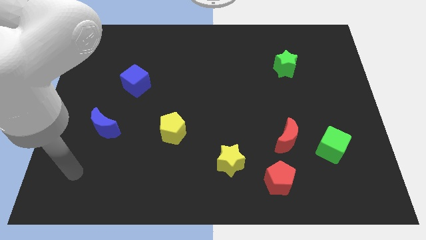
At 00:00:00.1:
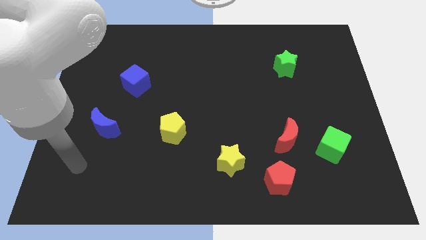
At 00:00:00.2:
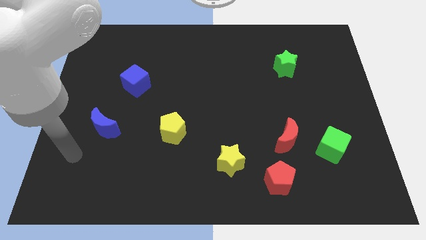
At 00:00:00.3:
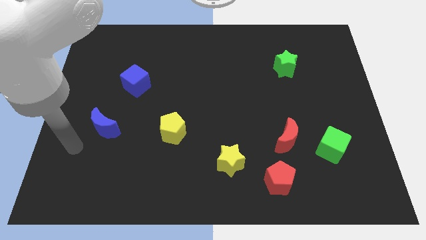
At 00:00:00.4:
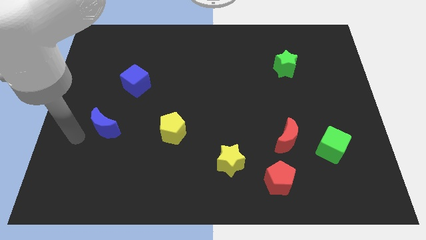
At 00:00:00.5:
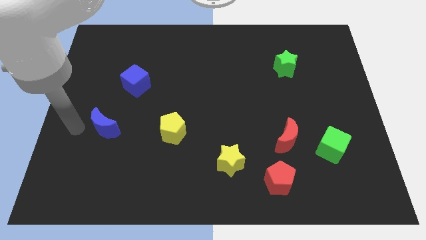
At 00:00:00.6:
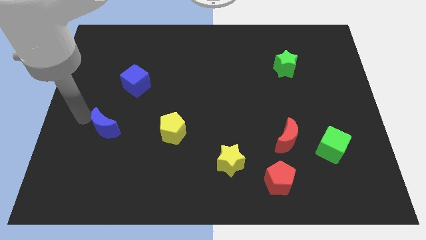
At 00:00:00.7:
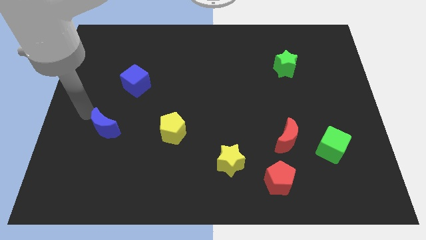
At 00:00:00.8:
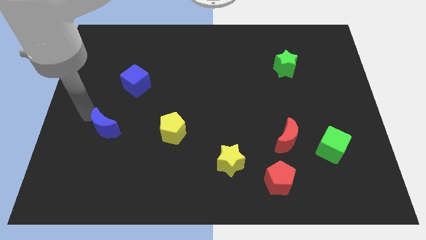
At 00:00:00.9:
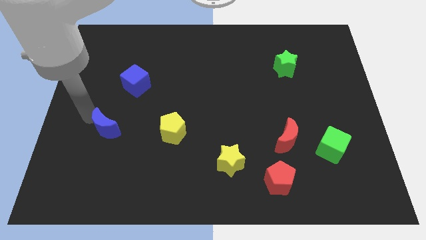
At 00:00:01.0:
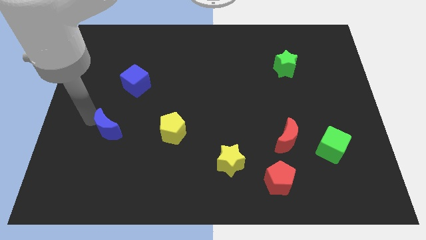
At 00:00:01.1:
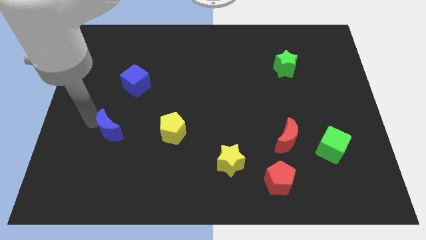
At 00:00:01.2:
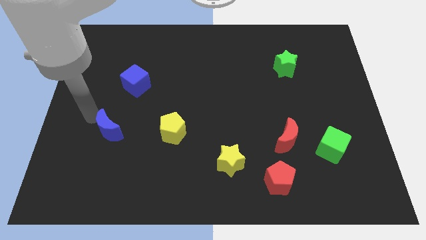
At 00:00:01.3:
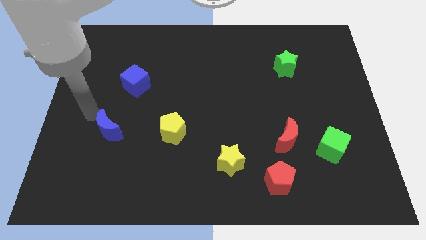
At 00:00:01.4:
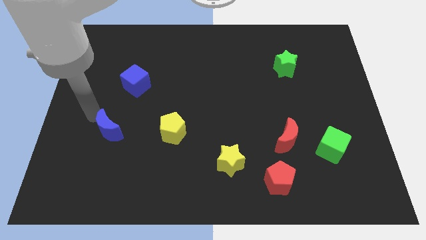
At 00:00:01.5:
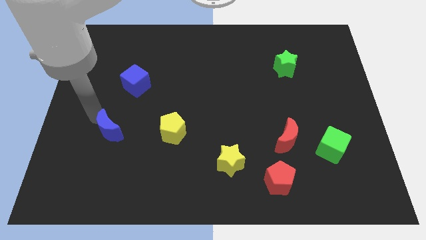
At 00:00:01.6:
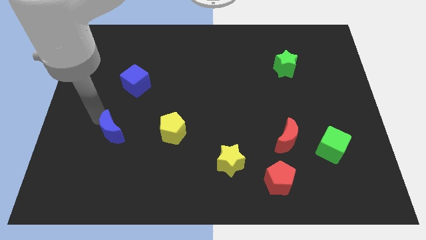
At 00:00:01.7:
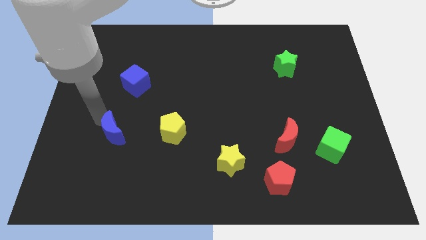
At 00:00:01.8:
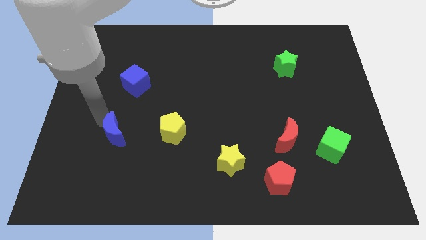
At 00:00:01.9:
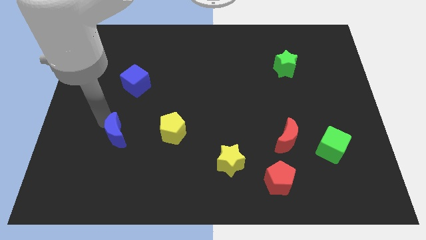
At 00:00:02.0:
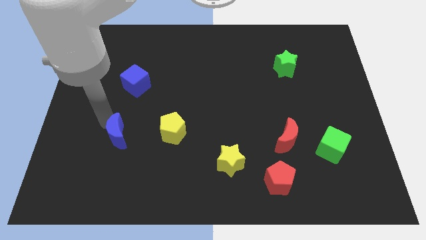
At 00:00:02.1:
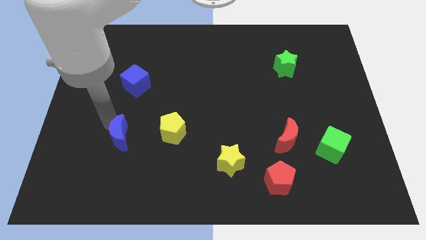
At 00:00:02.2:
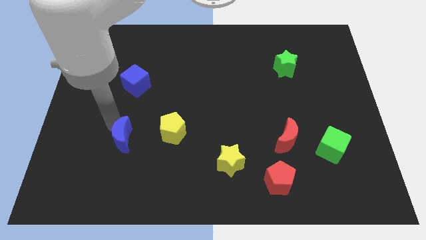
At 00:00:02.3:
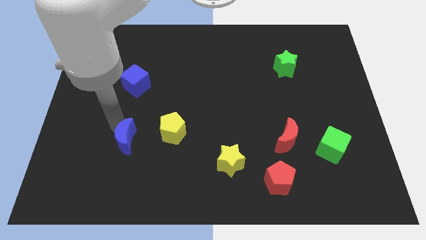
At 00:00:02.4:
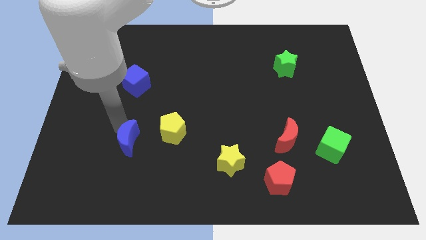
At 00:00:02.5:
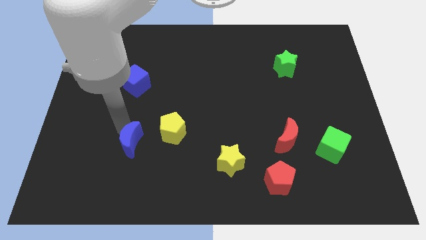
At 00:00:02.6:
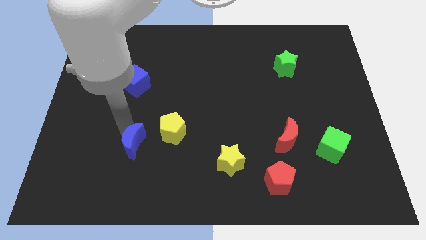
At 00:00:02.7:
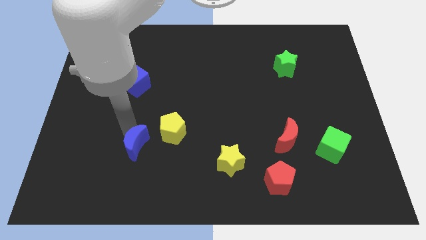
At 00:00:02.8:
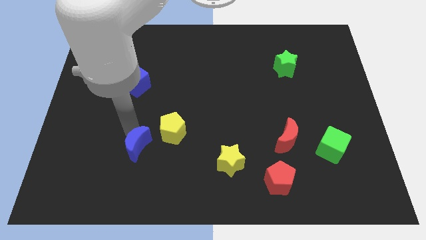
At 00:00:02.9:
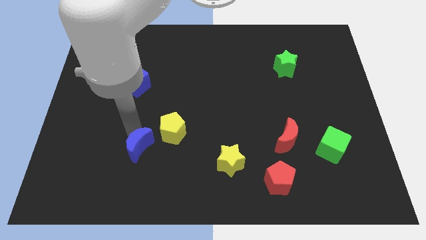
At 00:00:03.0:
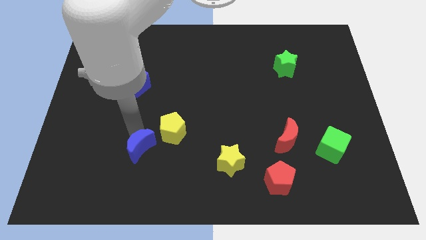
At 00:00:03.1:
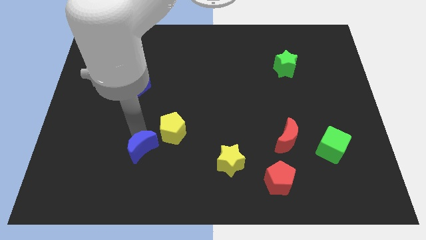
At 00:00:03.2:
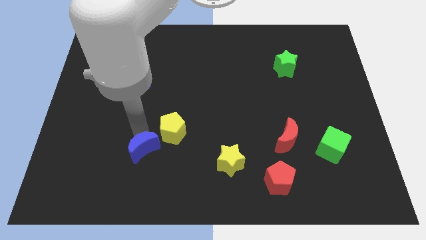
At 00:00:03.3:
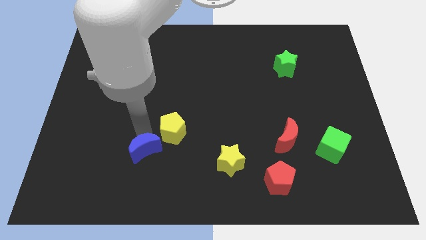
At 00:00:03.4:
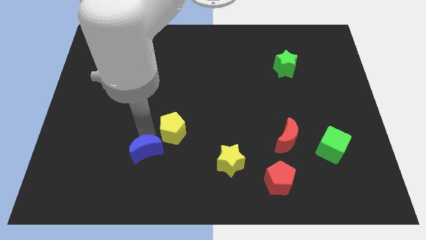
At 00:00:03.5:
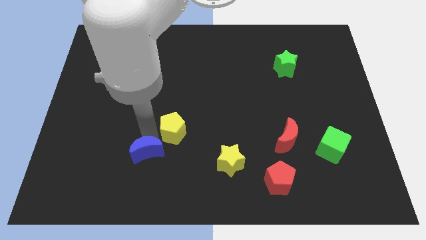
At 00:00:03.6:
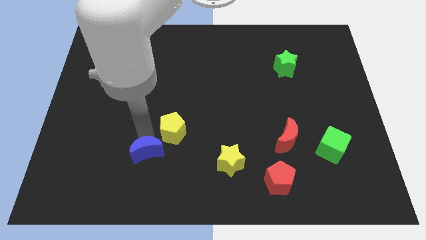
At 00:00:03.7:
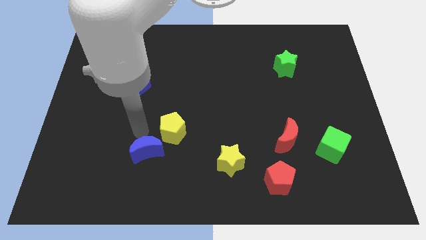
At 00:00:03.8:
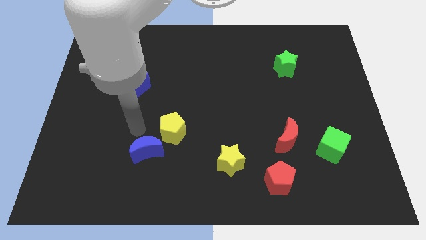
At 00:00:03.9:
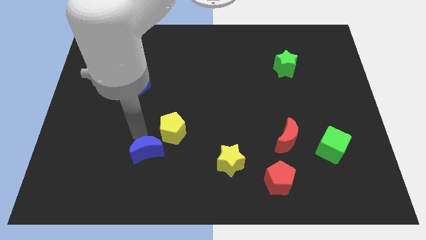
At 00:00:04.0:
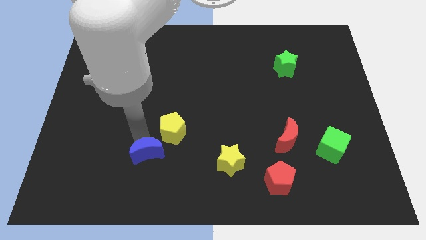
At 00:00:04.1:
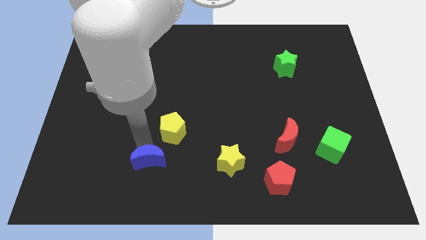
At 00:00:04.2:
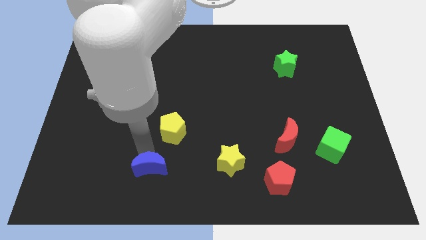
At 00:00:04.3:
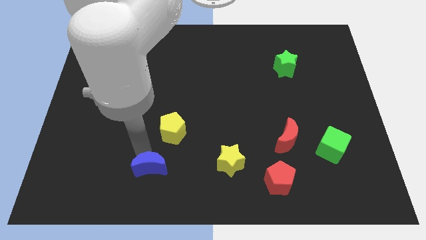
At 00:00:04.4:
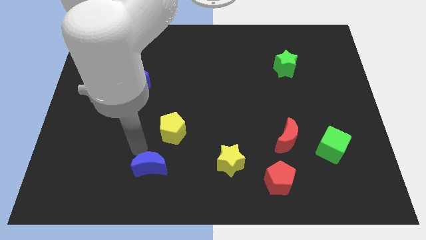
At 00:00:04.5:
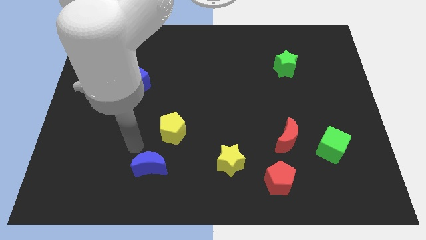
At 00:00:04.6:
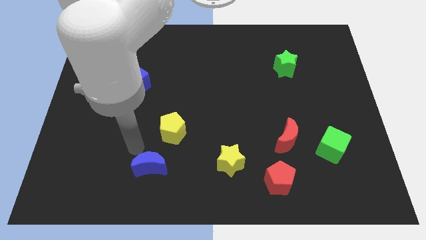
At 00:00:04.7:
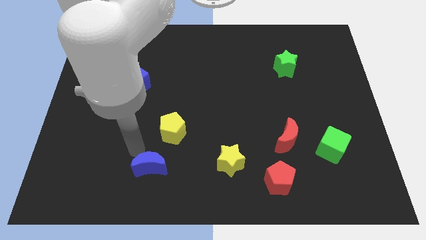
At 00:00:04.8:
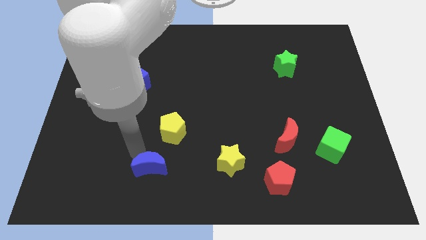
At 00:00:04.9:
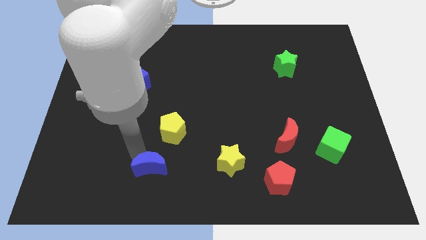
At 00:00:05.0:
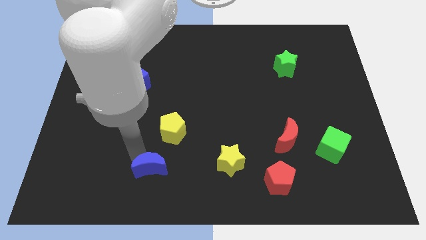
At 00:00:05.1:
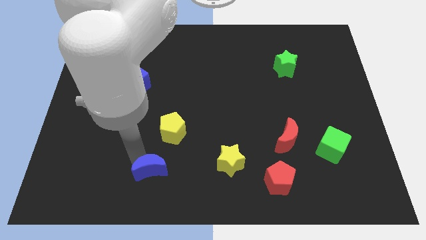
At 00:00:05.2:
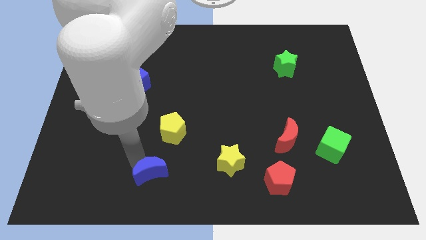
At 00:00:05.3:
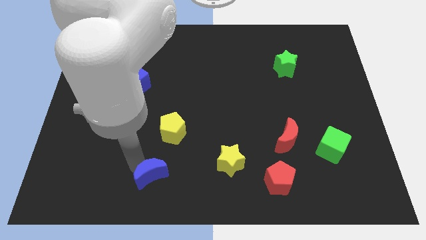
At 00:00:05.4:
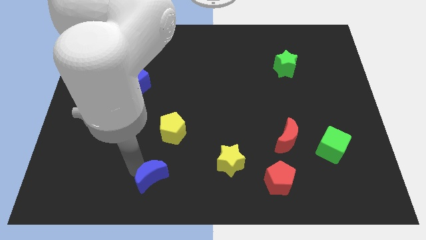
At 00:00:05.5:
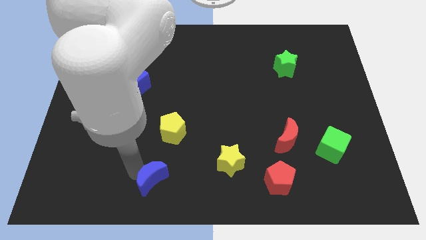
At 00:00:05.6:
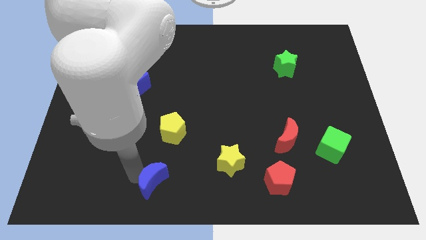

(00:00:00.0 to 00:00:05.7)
move the blue moon to the bottom side
